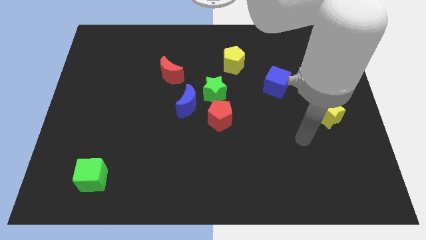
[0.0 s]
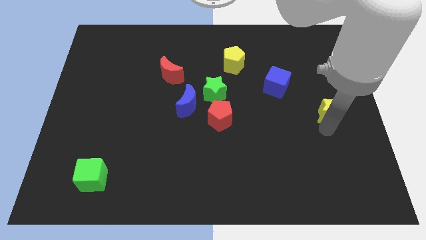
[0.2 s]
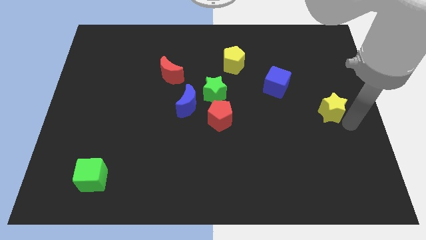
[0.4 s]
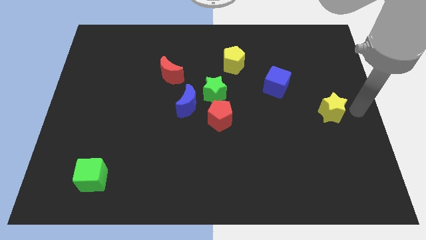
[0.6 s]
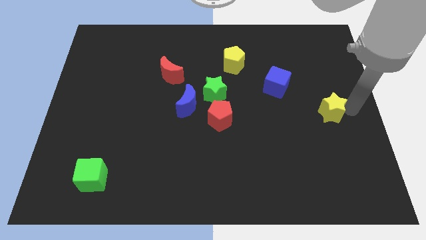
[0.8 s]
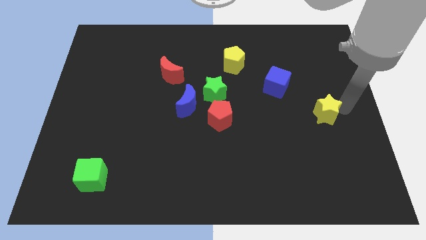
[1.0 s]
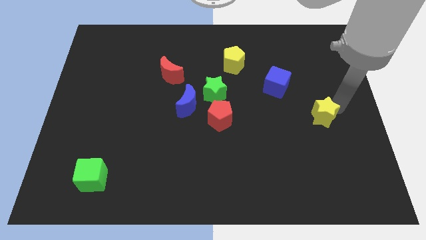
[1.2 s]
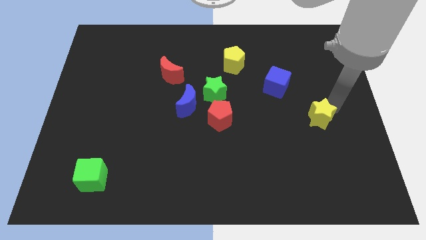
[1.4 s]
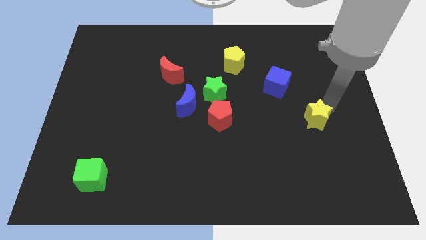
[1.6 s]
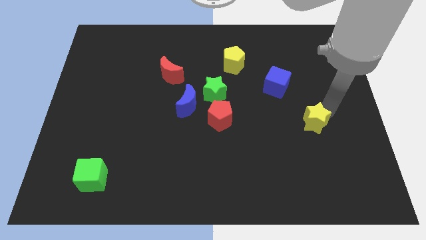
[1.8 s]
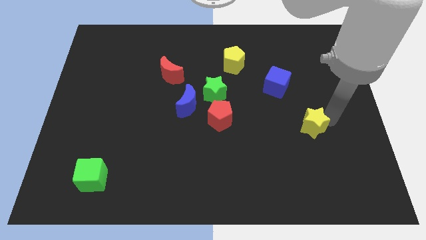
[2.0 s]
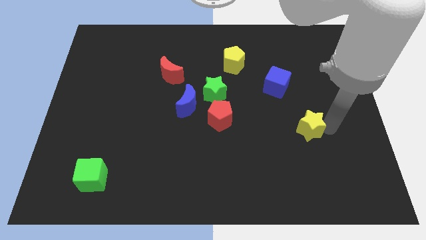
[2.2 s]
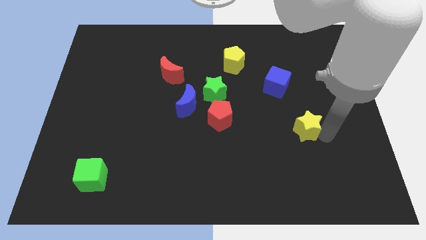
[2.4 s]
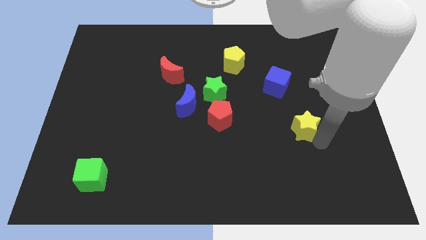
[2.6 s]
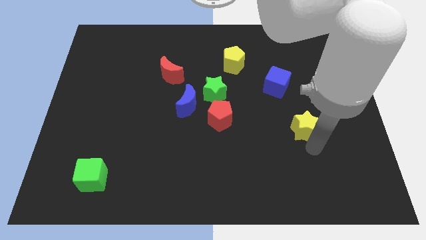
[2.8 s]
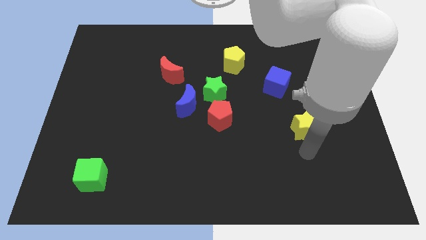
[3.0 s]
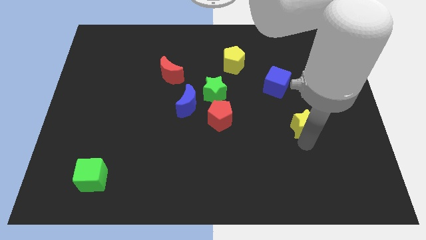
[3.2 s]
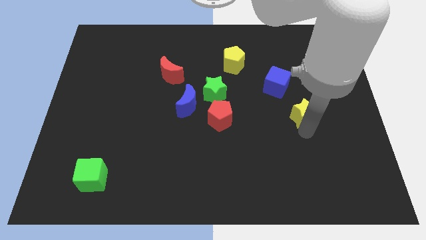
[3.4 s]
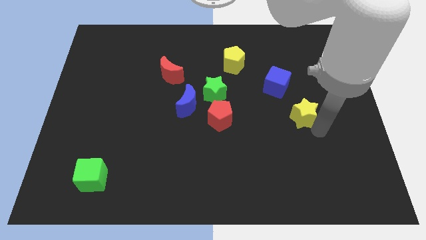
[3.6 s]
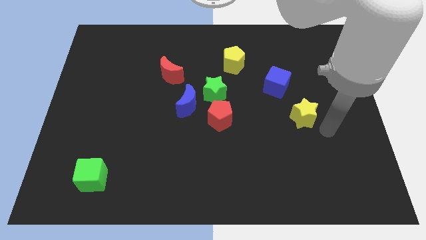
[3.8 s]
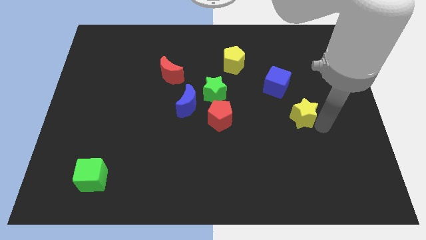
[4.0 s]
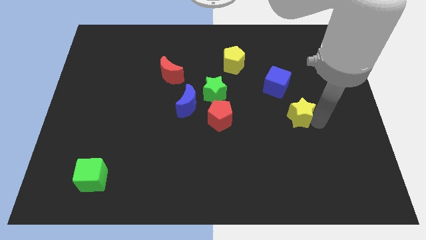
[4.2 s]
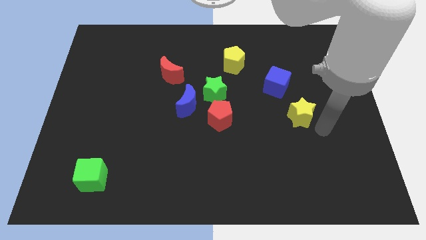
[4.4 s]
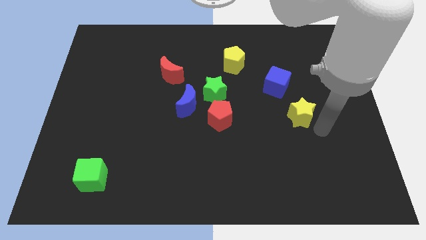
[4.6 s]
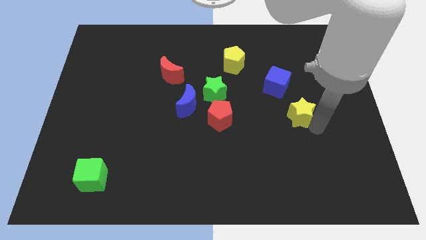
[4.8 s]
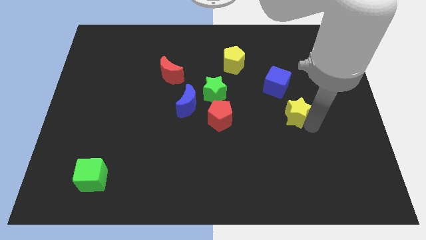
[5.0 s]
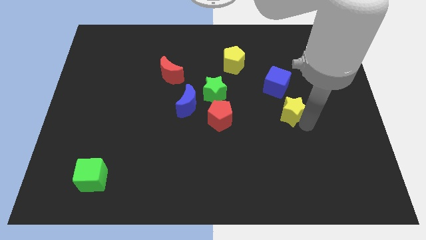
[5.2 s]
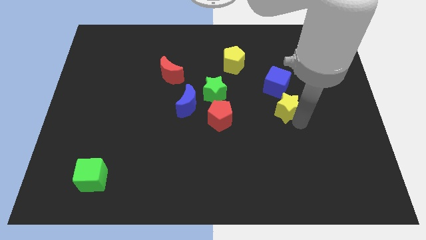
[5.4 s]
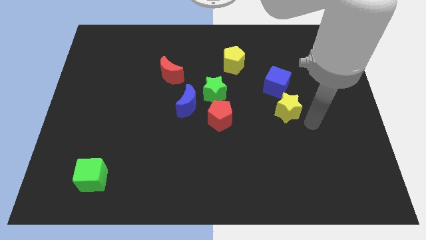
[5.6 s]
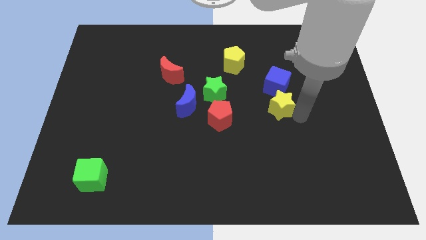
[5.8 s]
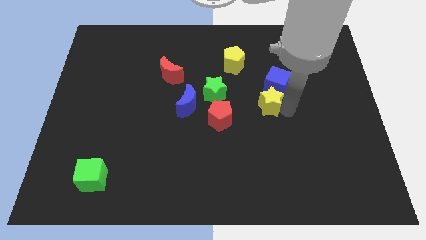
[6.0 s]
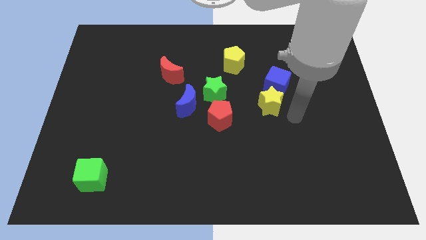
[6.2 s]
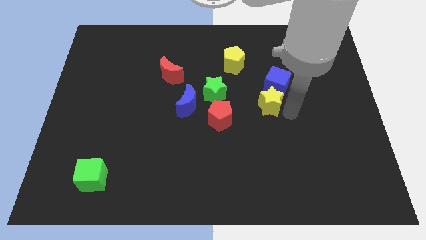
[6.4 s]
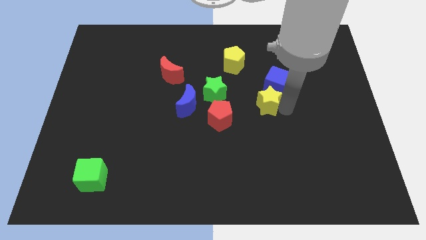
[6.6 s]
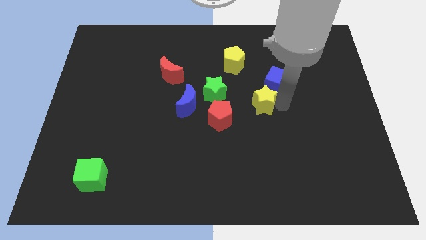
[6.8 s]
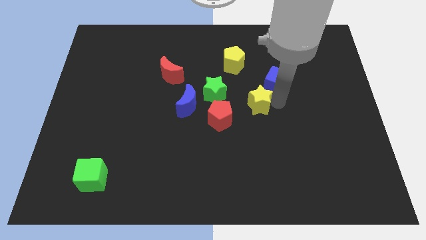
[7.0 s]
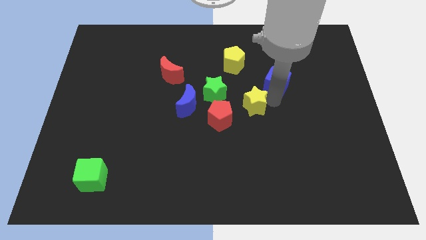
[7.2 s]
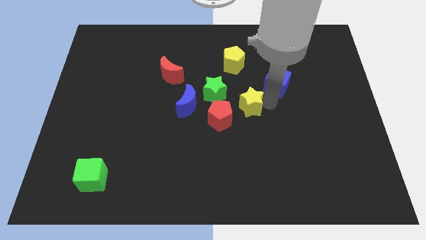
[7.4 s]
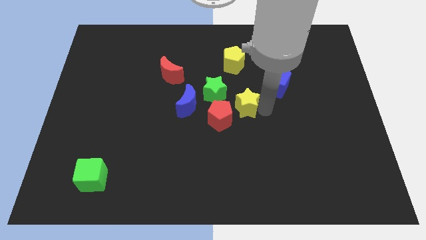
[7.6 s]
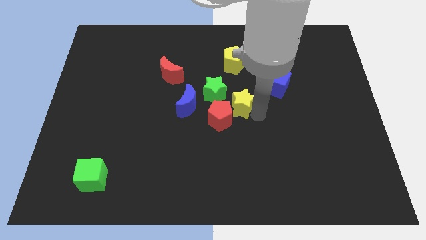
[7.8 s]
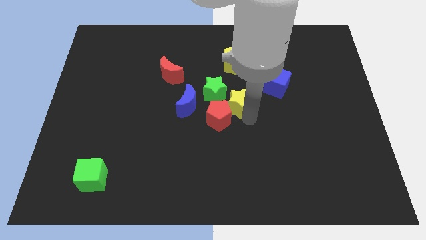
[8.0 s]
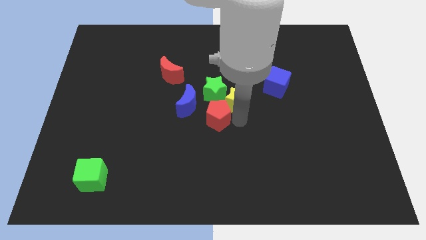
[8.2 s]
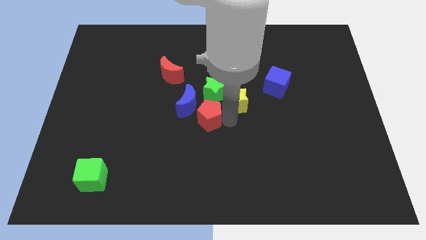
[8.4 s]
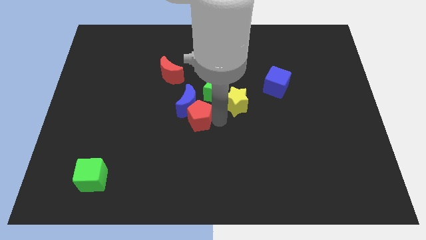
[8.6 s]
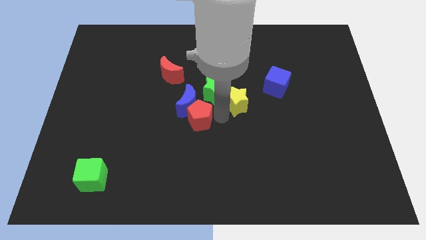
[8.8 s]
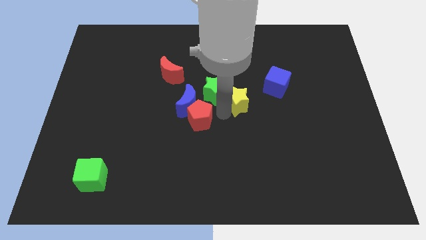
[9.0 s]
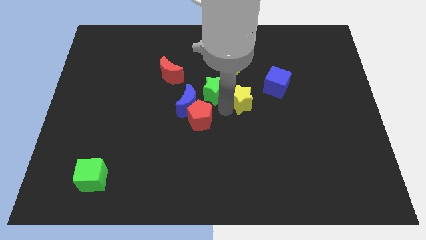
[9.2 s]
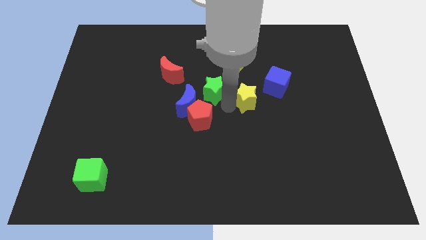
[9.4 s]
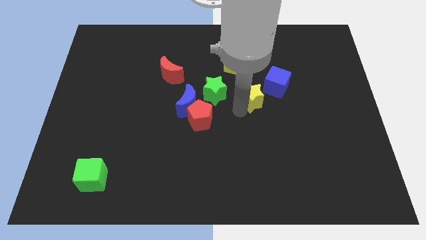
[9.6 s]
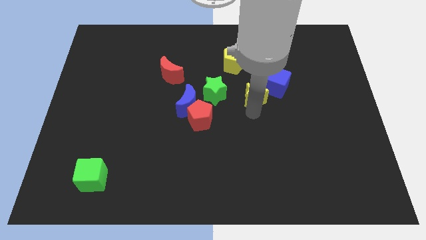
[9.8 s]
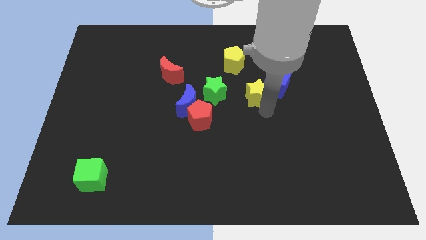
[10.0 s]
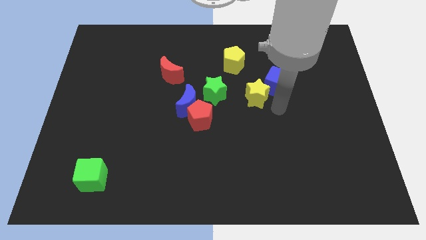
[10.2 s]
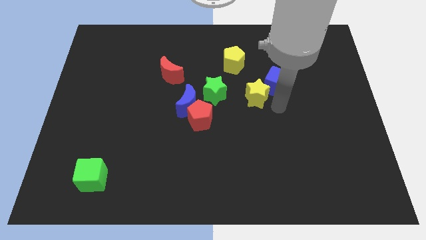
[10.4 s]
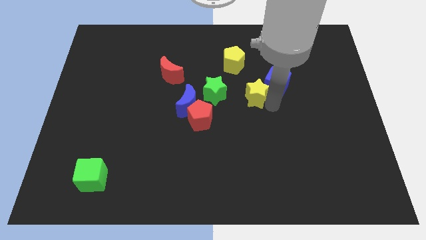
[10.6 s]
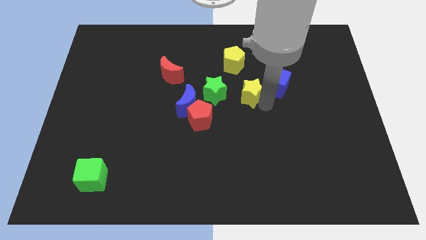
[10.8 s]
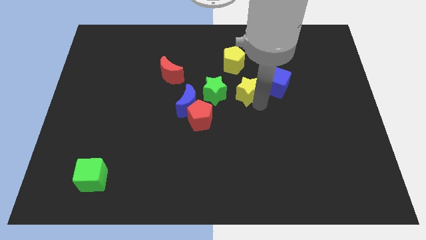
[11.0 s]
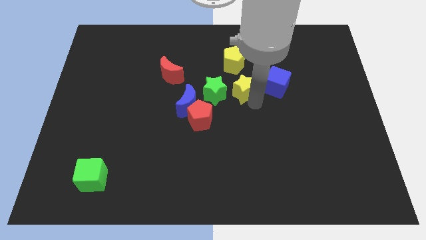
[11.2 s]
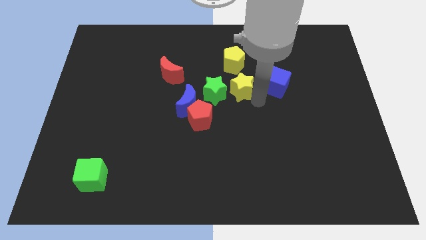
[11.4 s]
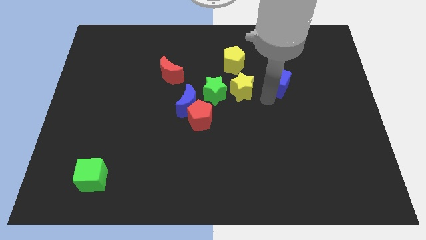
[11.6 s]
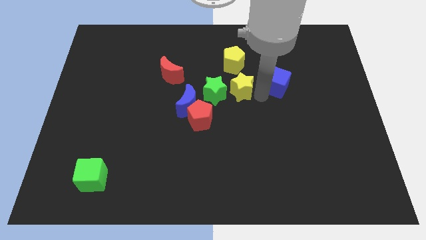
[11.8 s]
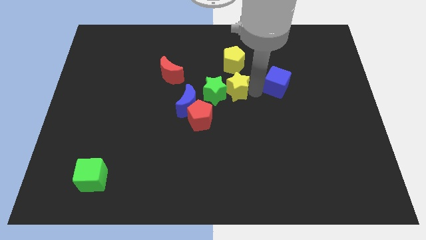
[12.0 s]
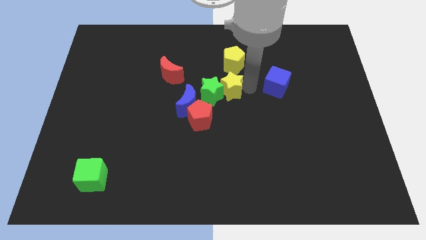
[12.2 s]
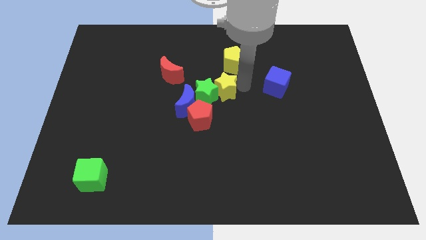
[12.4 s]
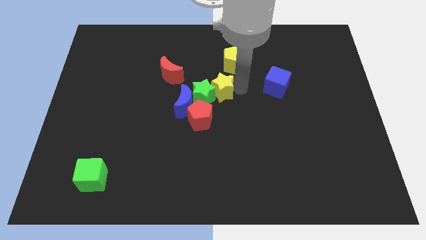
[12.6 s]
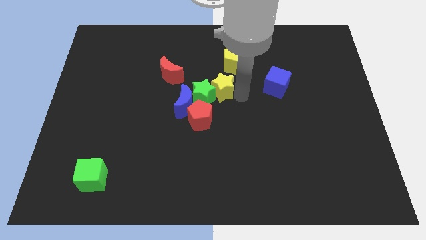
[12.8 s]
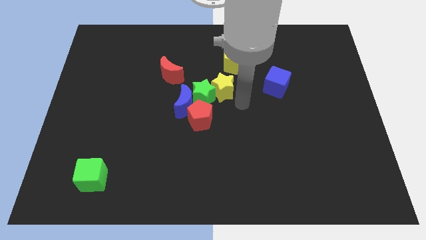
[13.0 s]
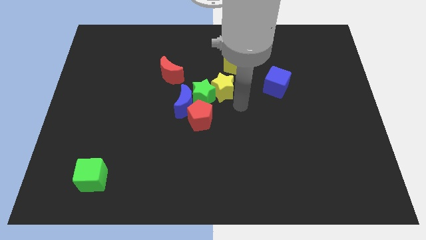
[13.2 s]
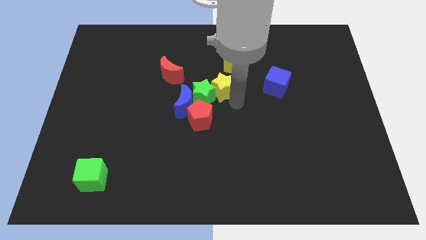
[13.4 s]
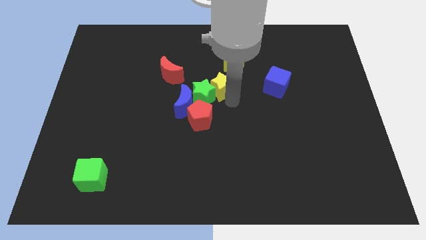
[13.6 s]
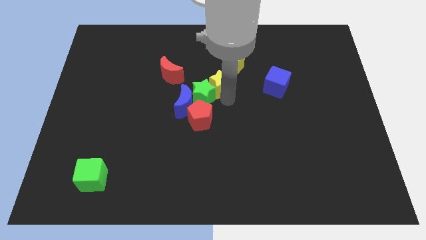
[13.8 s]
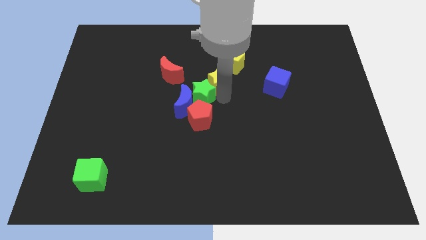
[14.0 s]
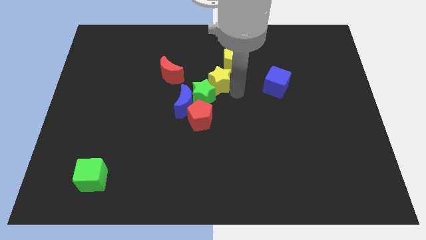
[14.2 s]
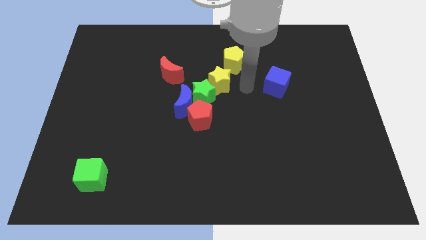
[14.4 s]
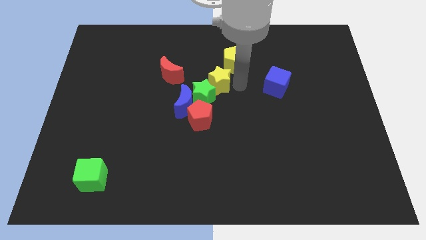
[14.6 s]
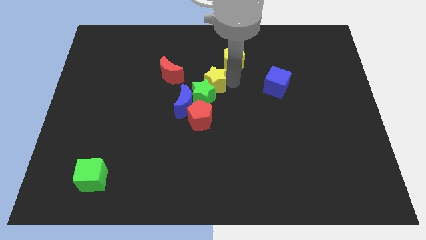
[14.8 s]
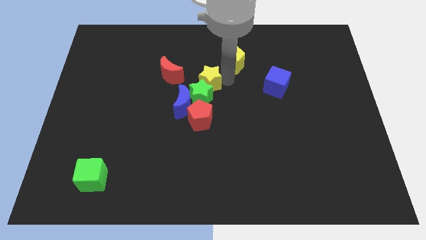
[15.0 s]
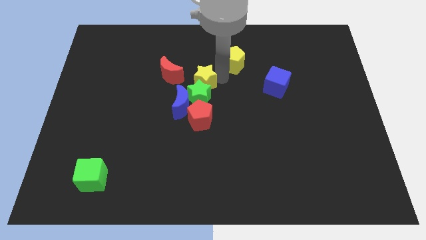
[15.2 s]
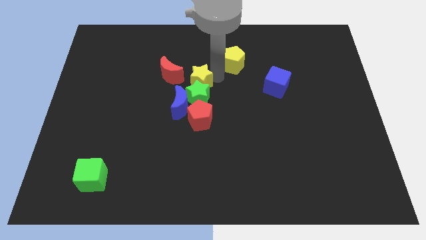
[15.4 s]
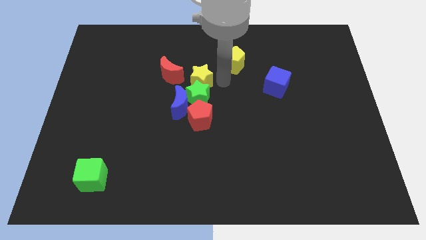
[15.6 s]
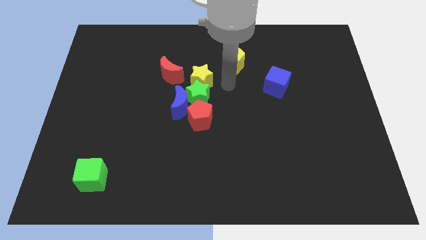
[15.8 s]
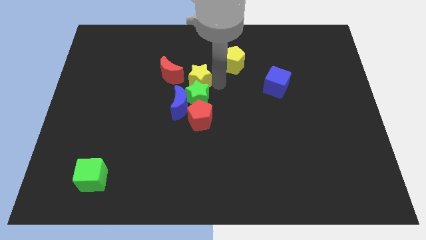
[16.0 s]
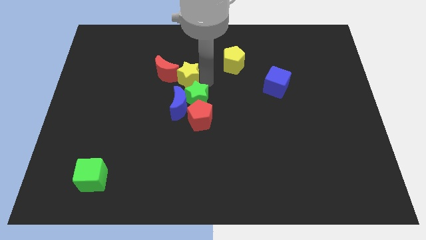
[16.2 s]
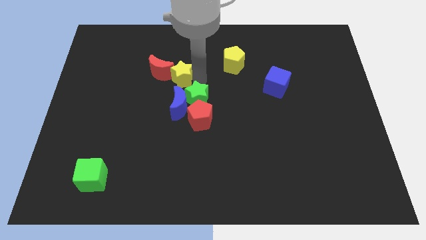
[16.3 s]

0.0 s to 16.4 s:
move the yellow star towards the red moon
